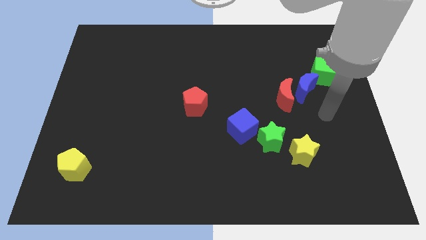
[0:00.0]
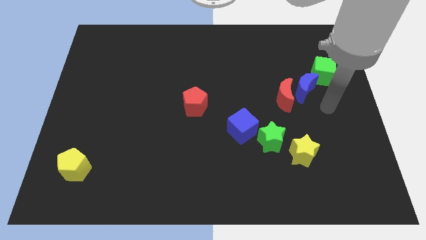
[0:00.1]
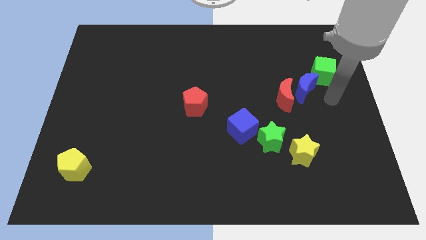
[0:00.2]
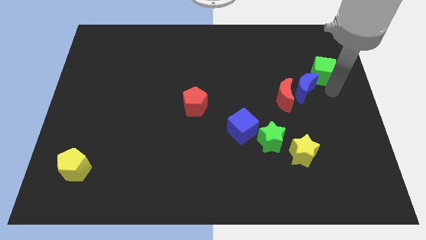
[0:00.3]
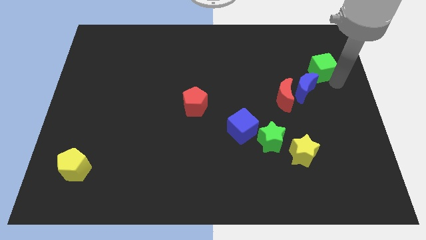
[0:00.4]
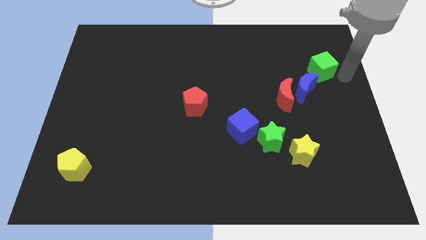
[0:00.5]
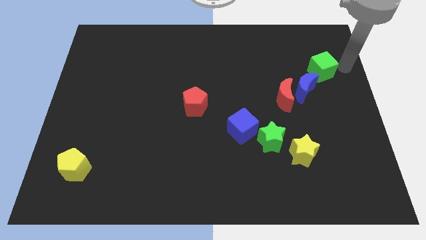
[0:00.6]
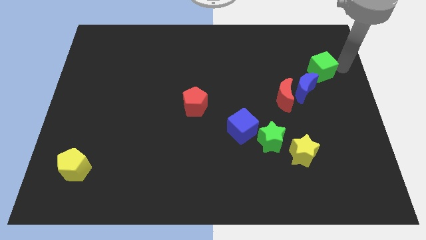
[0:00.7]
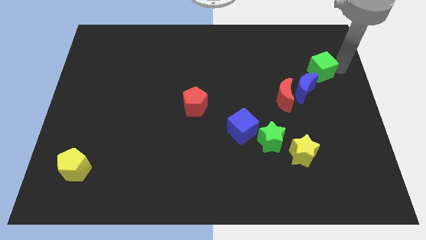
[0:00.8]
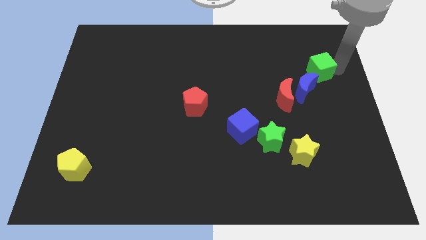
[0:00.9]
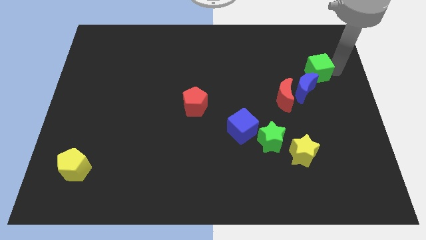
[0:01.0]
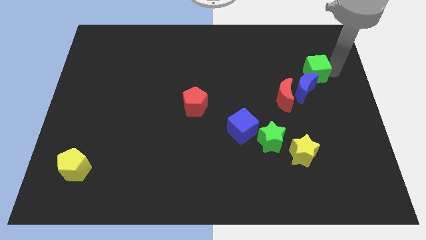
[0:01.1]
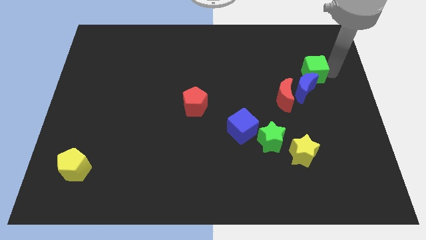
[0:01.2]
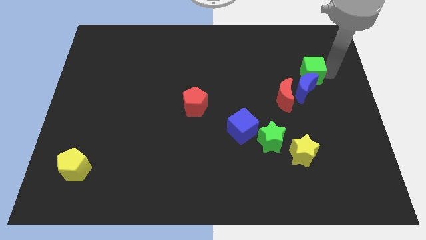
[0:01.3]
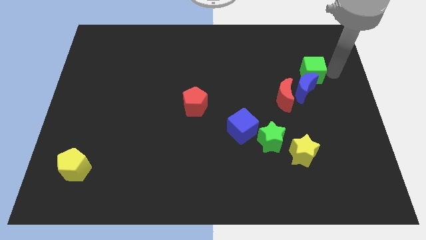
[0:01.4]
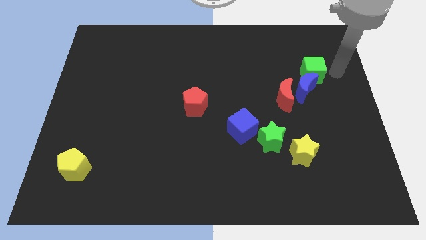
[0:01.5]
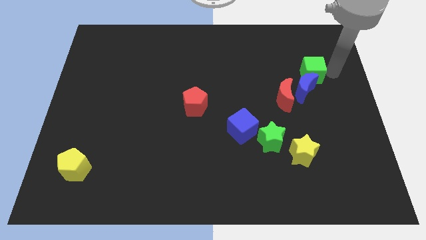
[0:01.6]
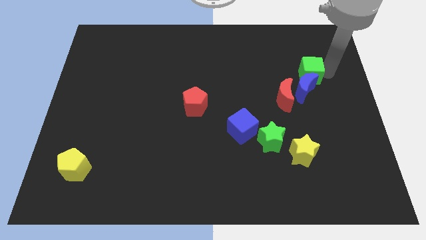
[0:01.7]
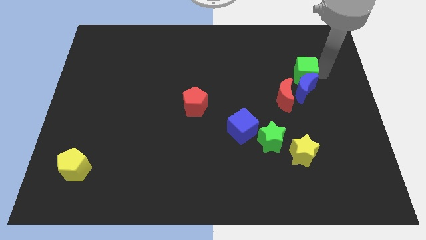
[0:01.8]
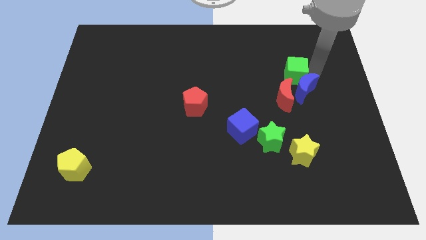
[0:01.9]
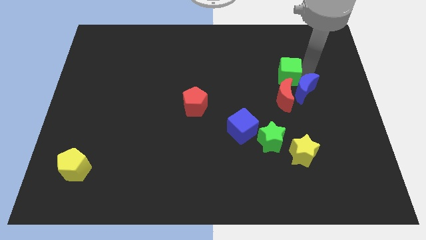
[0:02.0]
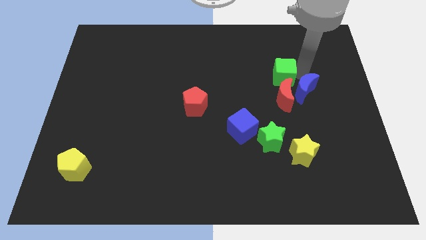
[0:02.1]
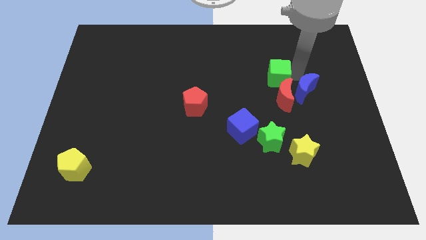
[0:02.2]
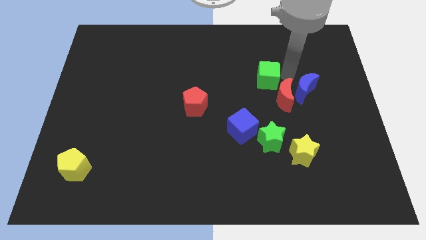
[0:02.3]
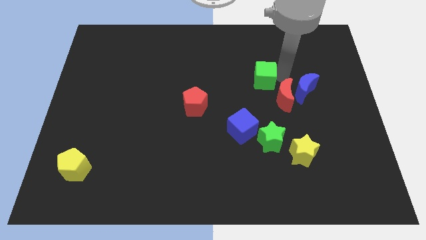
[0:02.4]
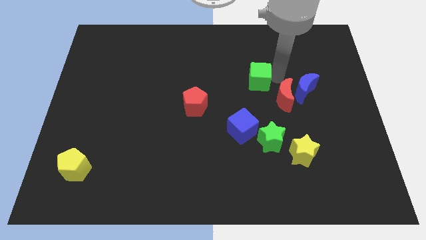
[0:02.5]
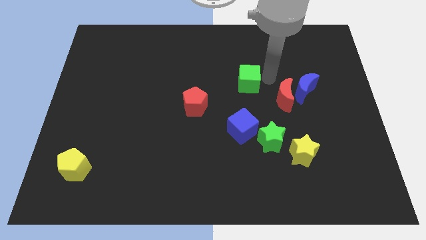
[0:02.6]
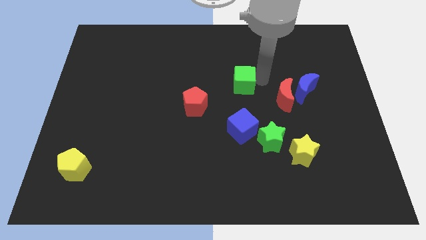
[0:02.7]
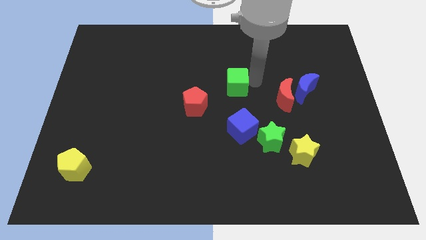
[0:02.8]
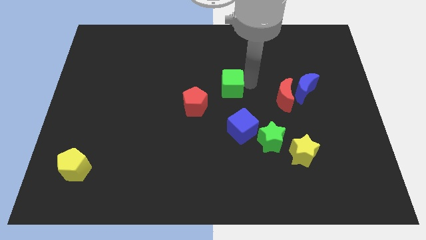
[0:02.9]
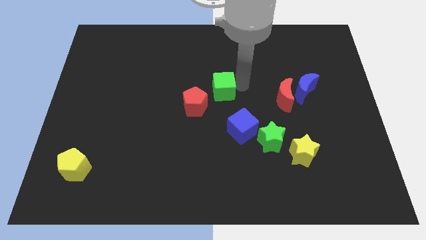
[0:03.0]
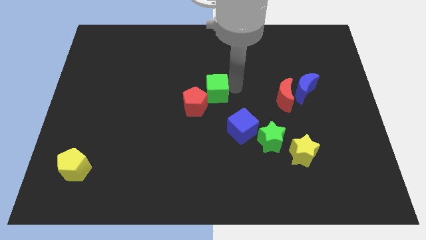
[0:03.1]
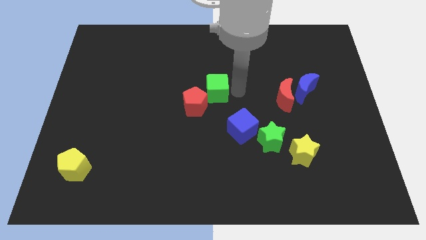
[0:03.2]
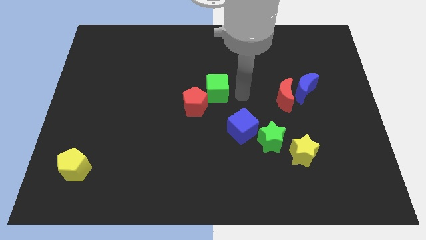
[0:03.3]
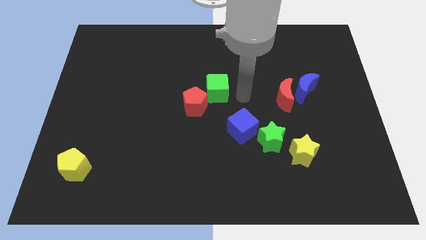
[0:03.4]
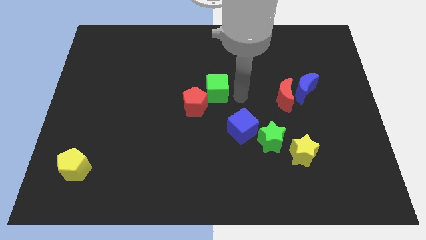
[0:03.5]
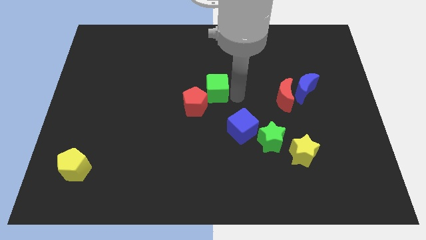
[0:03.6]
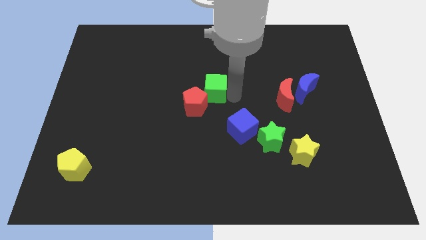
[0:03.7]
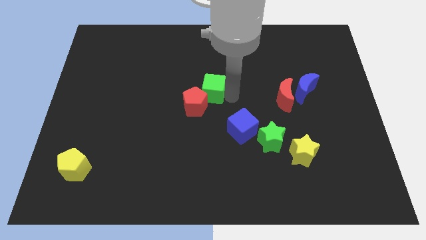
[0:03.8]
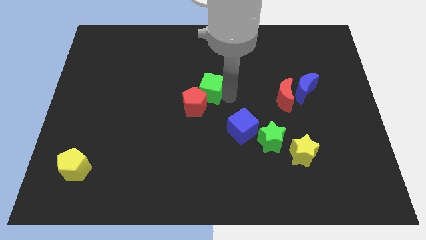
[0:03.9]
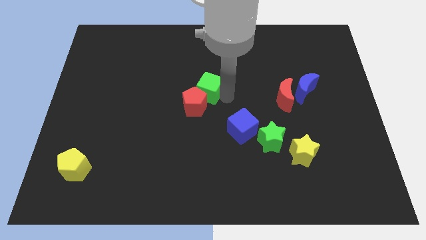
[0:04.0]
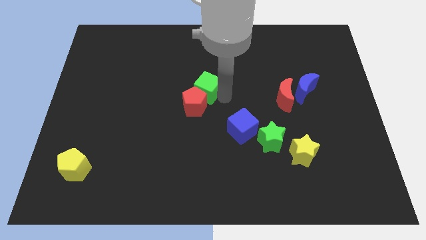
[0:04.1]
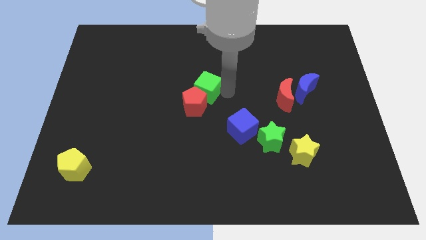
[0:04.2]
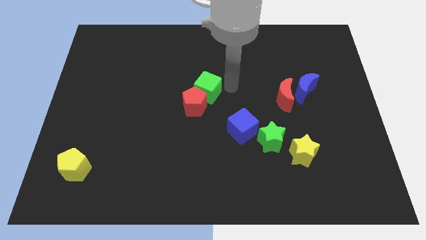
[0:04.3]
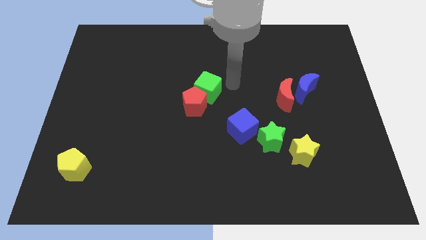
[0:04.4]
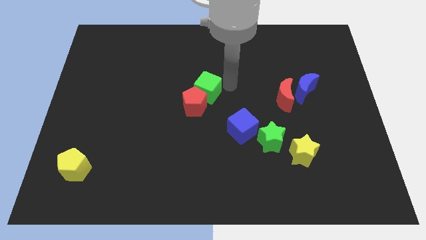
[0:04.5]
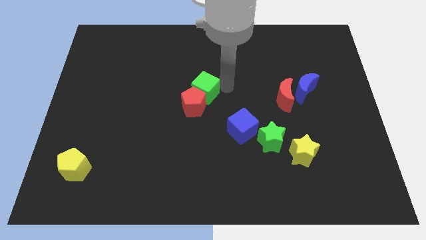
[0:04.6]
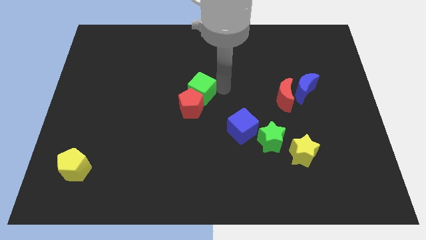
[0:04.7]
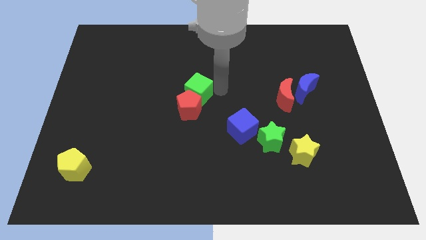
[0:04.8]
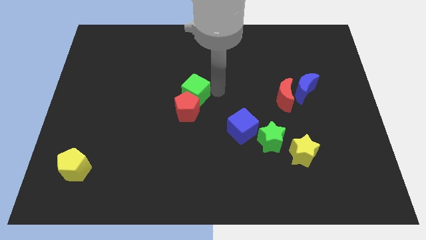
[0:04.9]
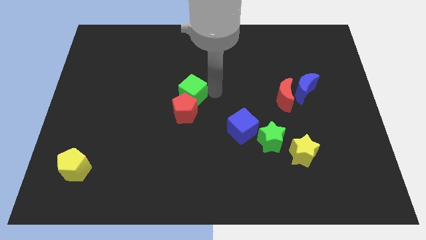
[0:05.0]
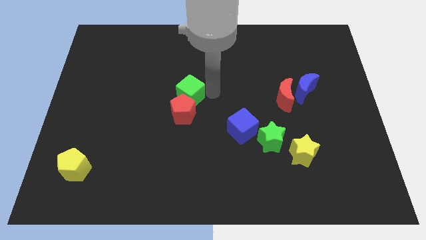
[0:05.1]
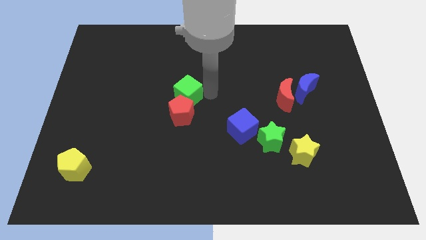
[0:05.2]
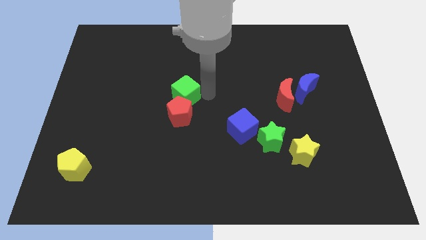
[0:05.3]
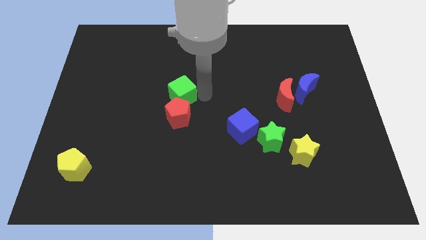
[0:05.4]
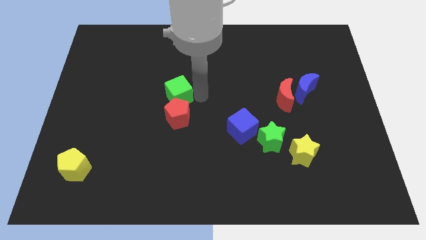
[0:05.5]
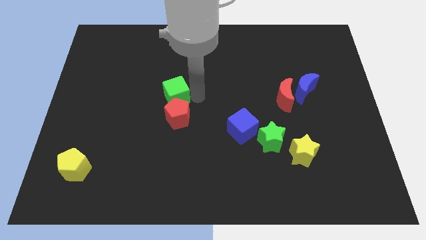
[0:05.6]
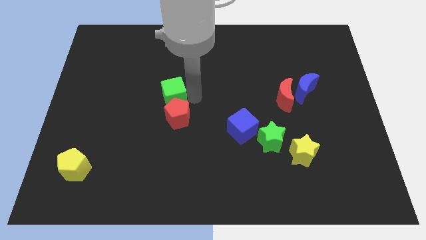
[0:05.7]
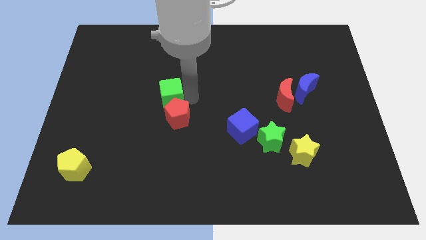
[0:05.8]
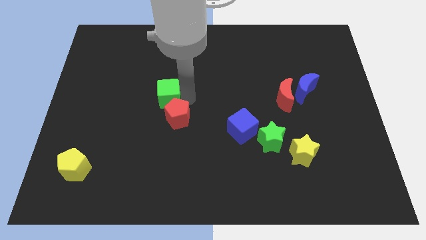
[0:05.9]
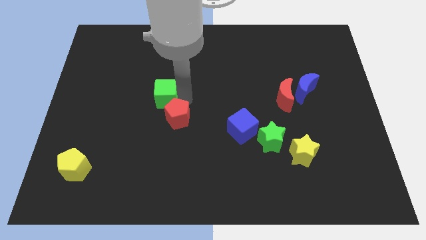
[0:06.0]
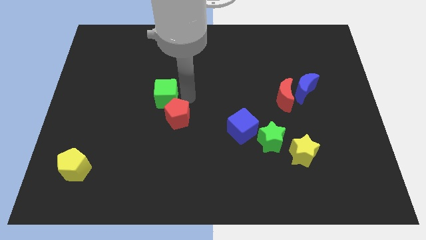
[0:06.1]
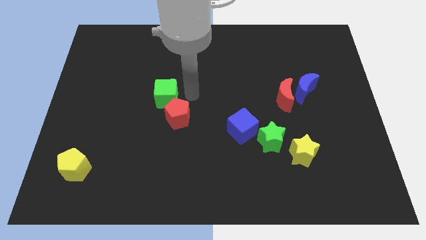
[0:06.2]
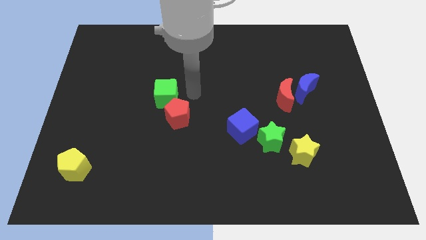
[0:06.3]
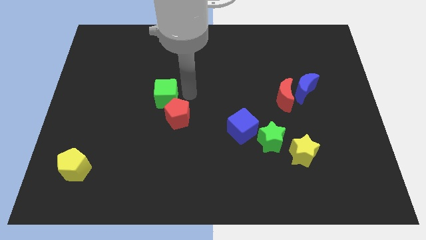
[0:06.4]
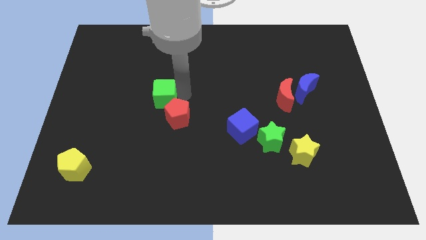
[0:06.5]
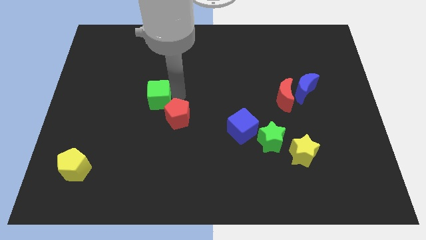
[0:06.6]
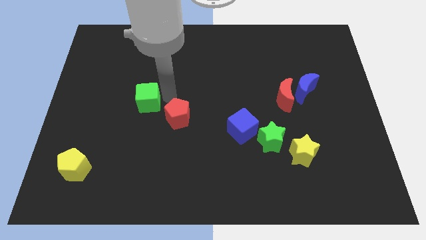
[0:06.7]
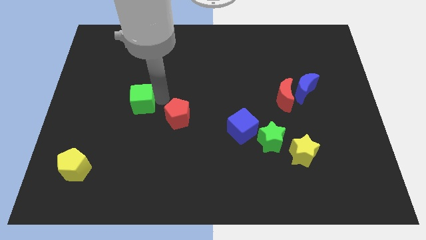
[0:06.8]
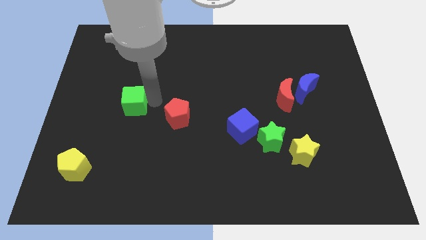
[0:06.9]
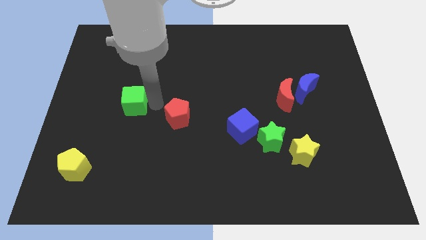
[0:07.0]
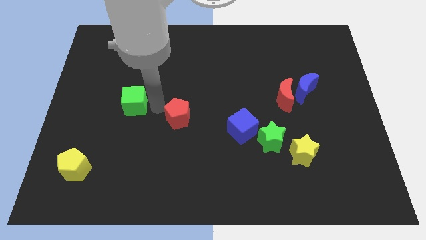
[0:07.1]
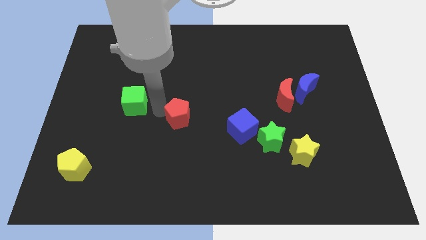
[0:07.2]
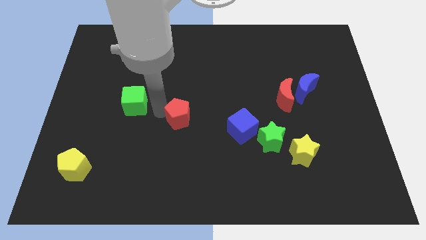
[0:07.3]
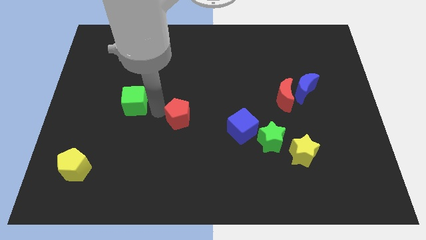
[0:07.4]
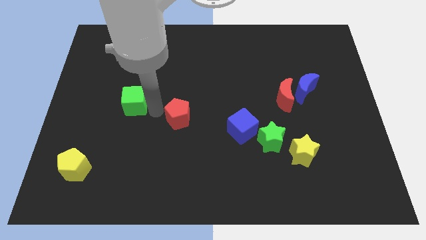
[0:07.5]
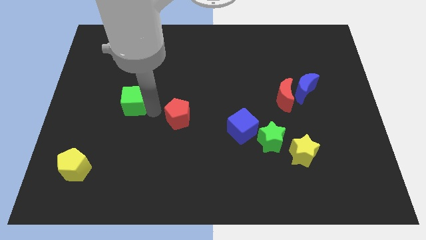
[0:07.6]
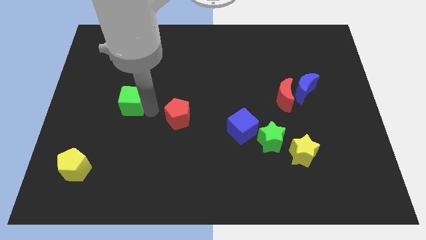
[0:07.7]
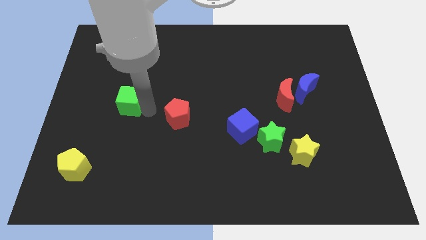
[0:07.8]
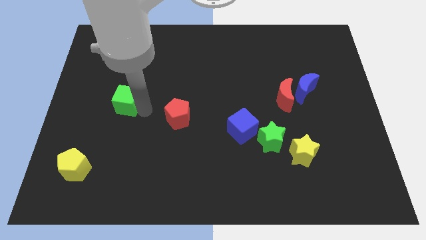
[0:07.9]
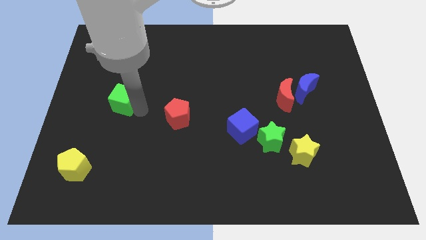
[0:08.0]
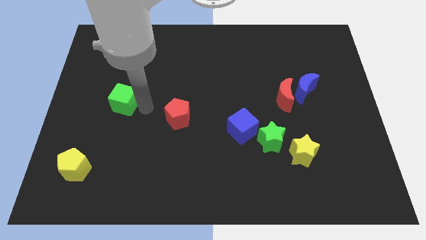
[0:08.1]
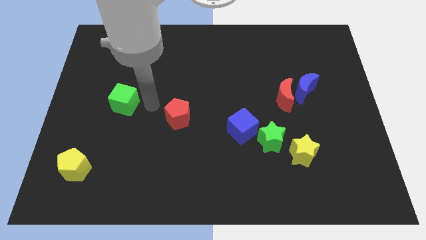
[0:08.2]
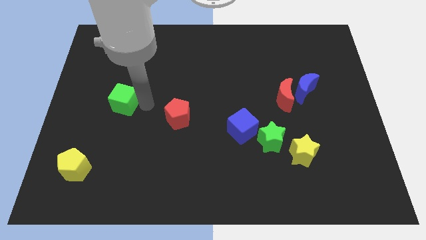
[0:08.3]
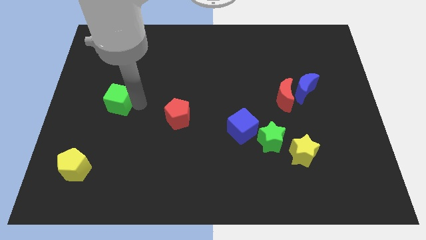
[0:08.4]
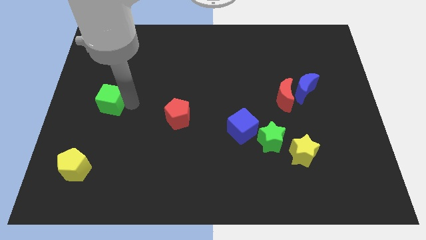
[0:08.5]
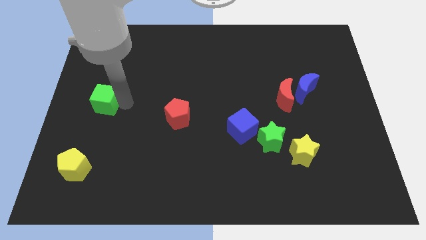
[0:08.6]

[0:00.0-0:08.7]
push the green cube to the left side
